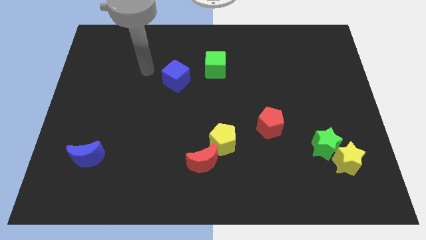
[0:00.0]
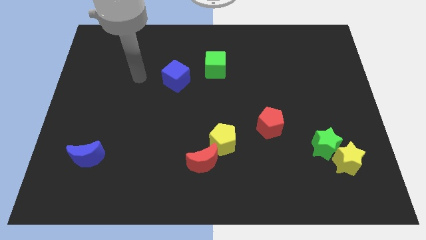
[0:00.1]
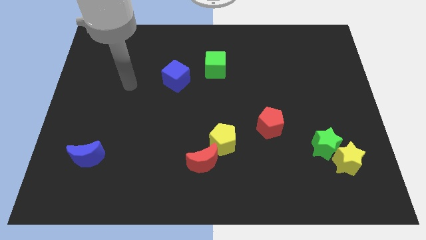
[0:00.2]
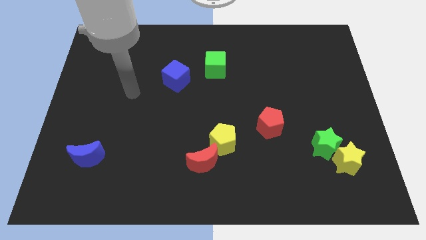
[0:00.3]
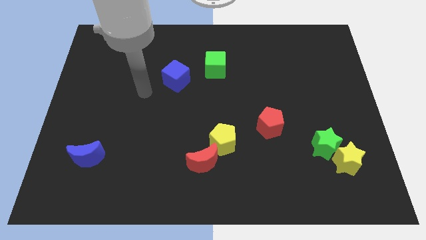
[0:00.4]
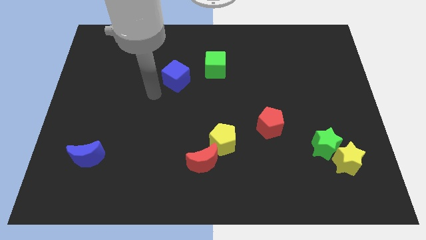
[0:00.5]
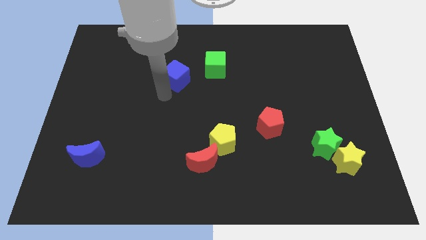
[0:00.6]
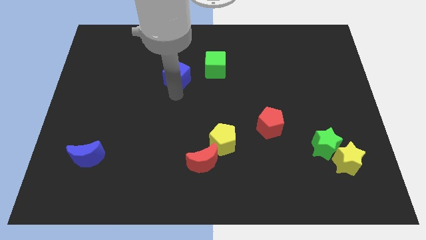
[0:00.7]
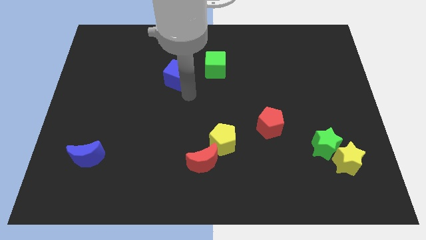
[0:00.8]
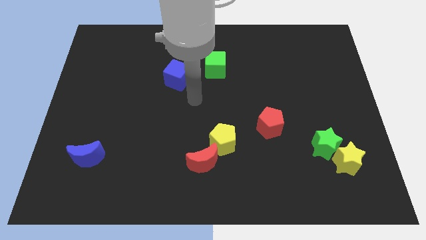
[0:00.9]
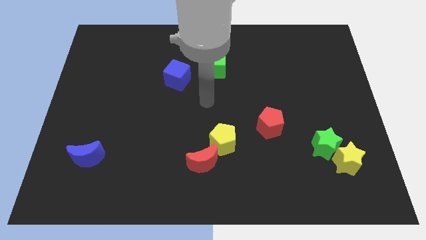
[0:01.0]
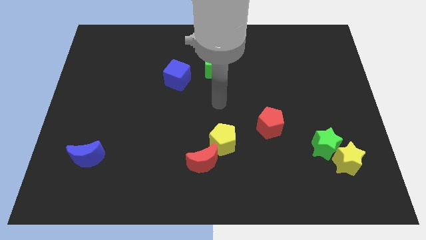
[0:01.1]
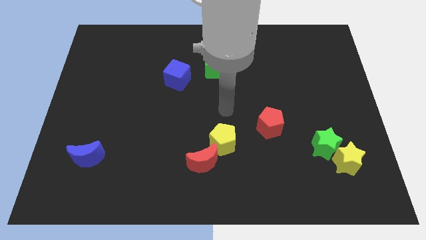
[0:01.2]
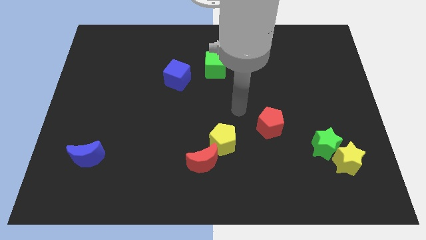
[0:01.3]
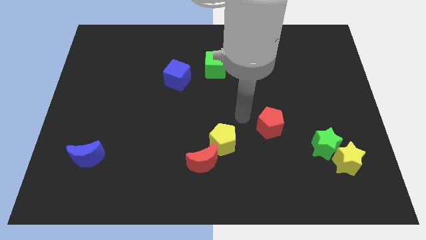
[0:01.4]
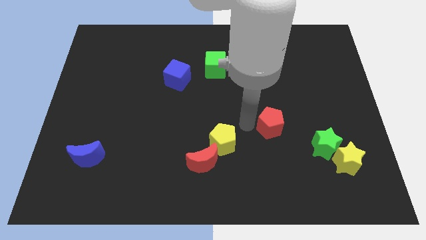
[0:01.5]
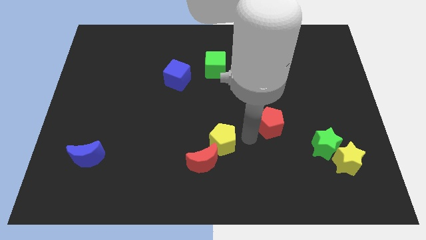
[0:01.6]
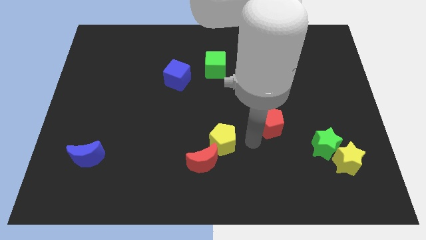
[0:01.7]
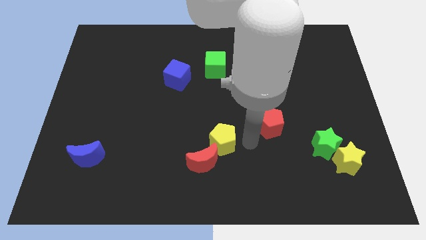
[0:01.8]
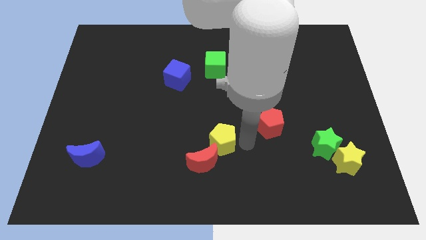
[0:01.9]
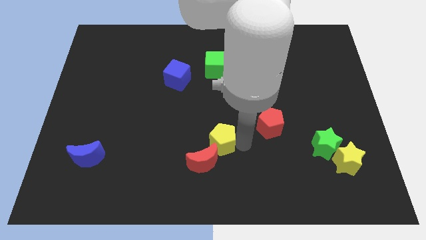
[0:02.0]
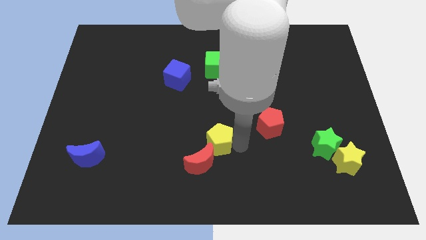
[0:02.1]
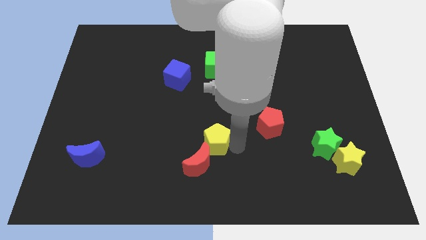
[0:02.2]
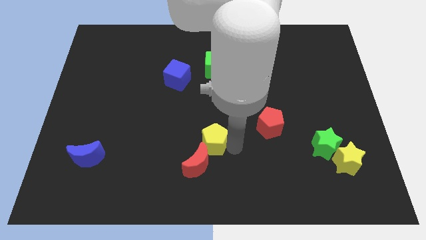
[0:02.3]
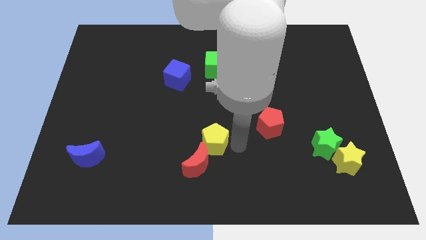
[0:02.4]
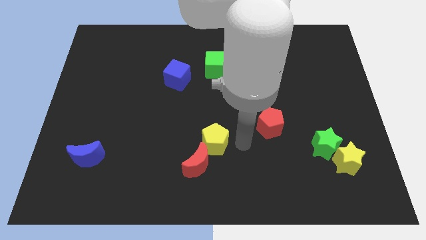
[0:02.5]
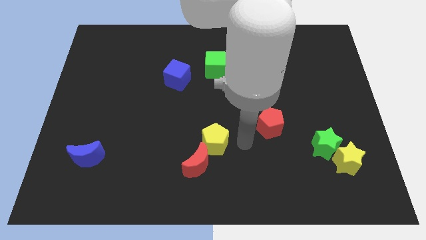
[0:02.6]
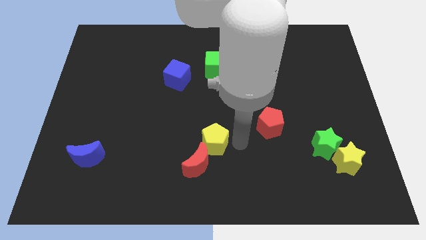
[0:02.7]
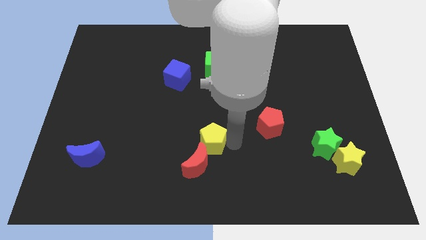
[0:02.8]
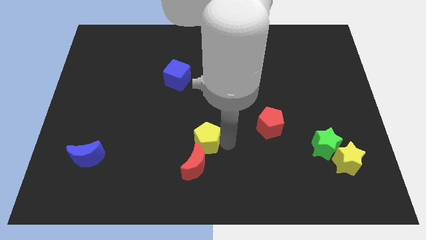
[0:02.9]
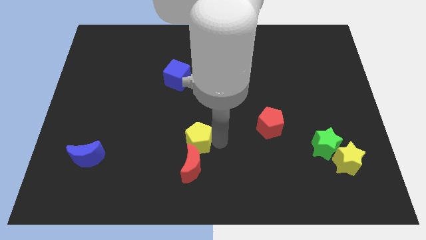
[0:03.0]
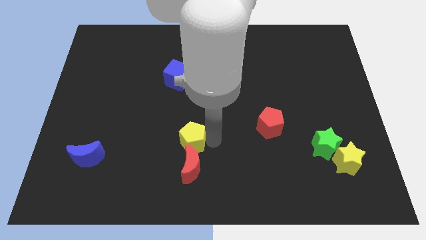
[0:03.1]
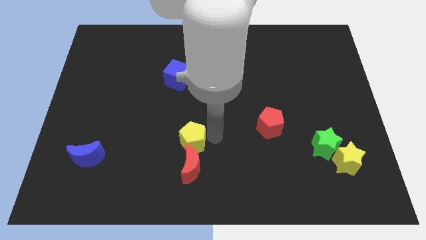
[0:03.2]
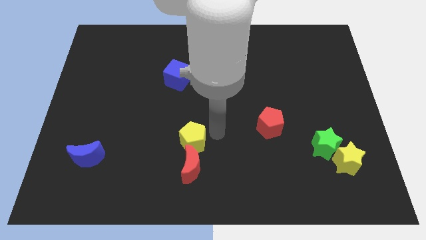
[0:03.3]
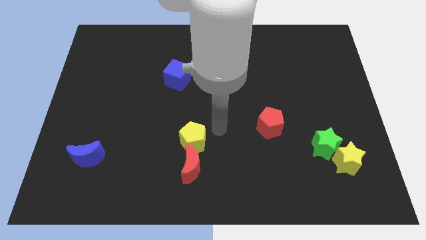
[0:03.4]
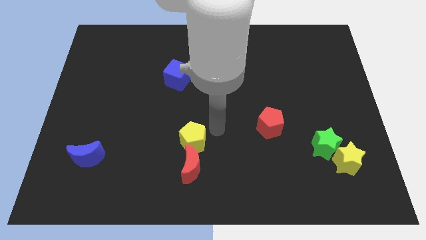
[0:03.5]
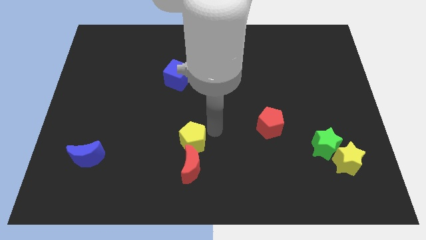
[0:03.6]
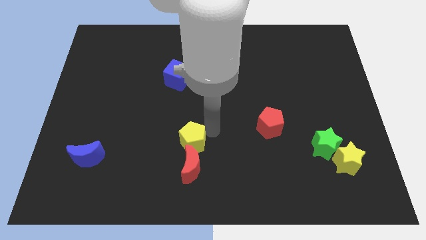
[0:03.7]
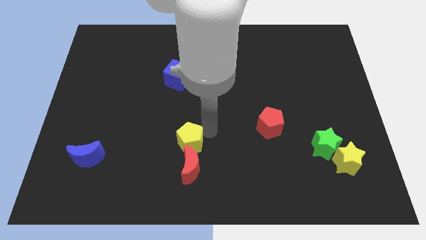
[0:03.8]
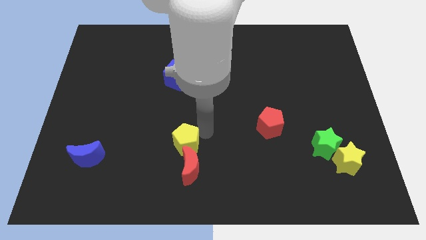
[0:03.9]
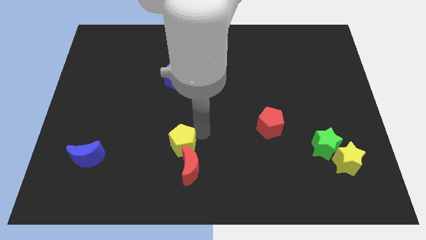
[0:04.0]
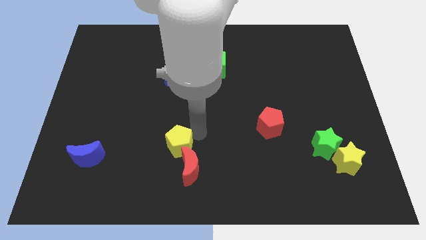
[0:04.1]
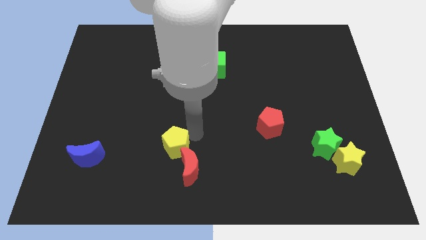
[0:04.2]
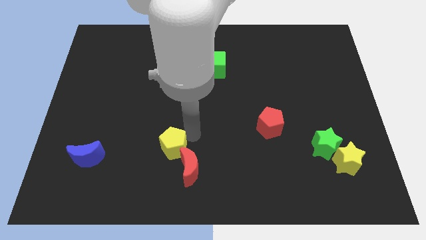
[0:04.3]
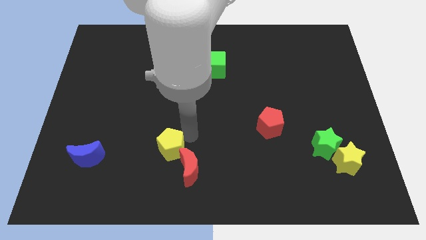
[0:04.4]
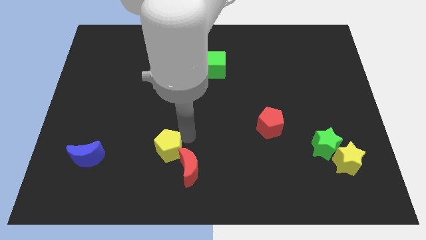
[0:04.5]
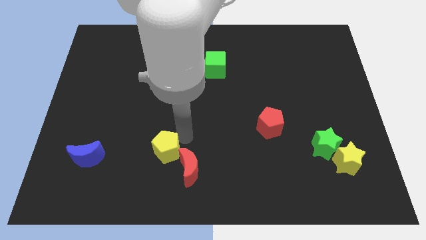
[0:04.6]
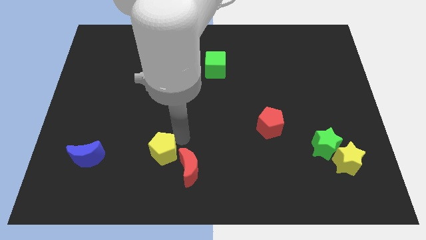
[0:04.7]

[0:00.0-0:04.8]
move the yellow pentagon just right of the blue moon

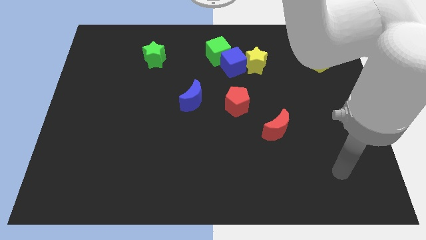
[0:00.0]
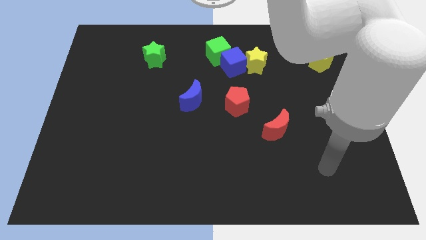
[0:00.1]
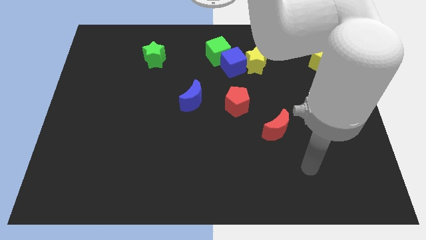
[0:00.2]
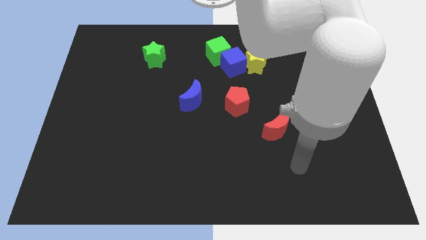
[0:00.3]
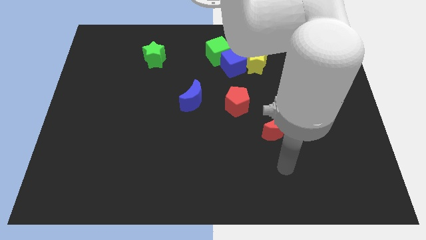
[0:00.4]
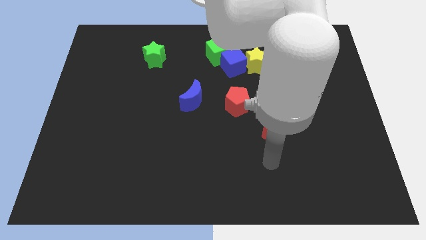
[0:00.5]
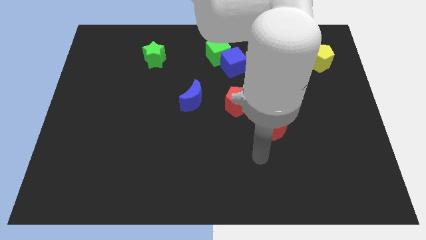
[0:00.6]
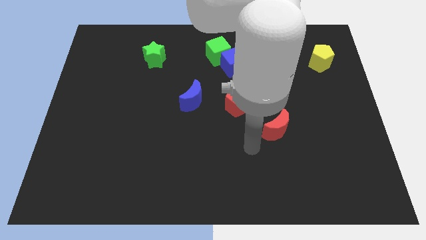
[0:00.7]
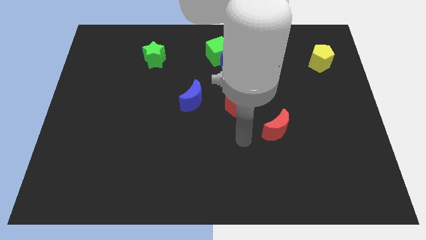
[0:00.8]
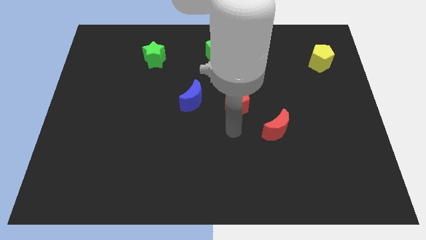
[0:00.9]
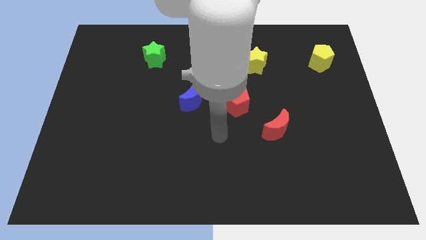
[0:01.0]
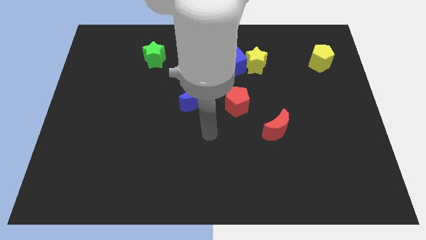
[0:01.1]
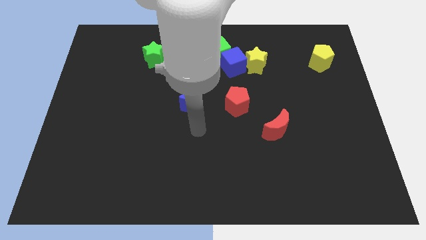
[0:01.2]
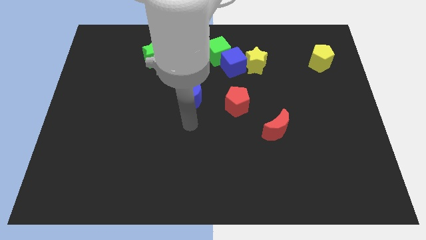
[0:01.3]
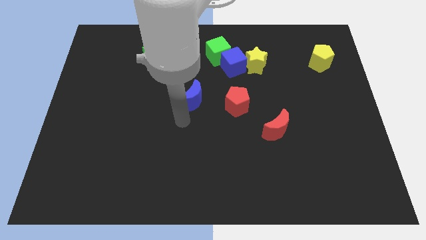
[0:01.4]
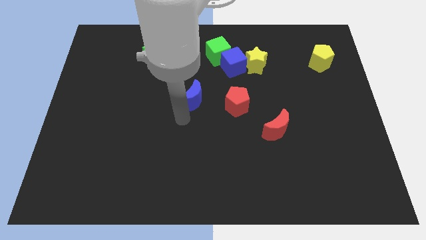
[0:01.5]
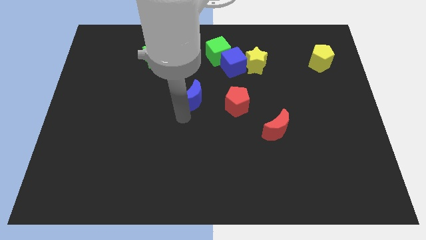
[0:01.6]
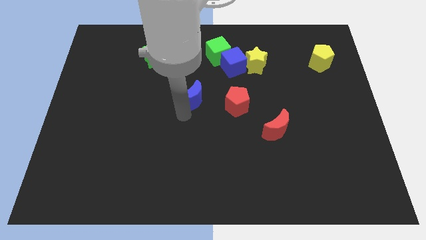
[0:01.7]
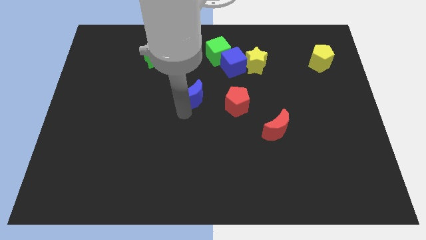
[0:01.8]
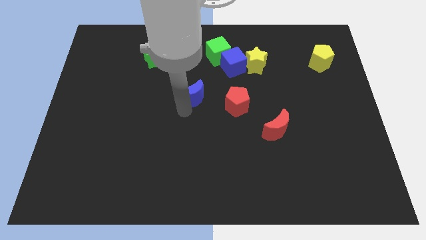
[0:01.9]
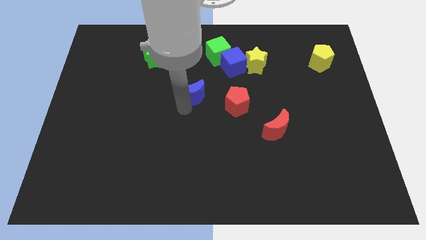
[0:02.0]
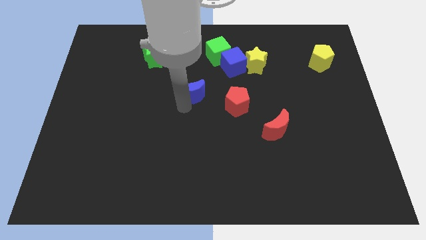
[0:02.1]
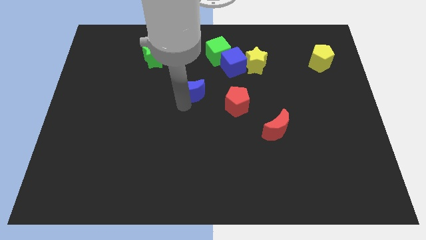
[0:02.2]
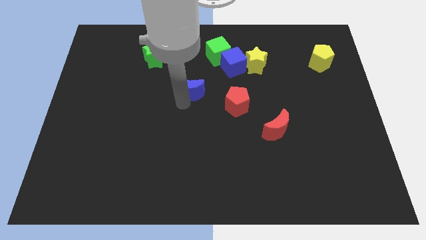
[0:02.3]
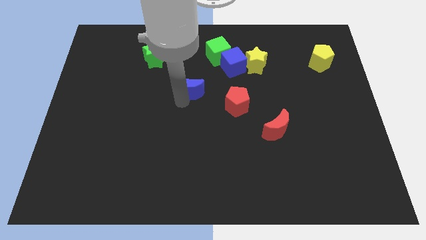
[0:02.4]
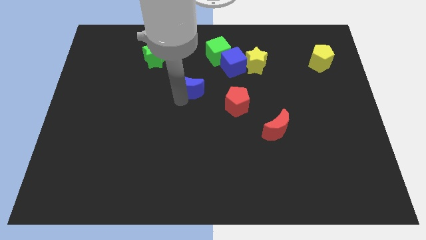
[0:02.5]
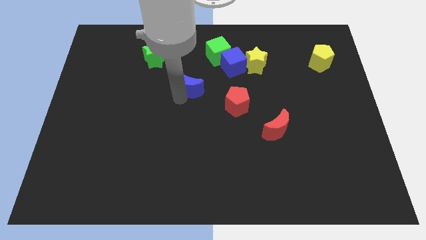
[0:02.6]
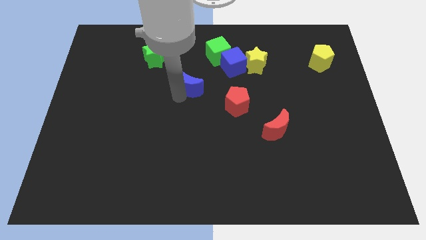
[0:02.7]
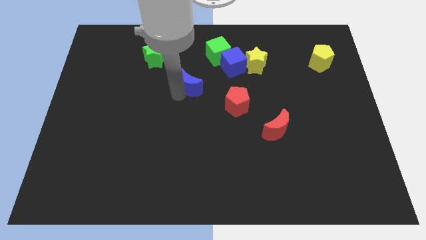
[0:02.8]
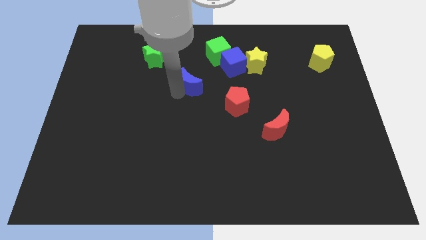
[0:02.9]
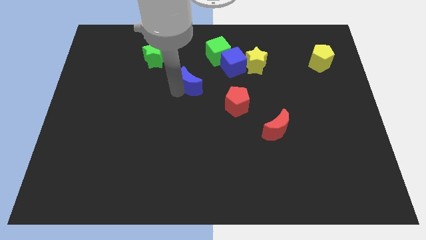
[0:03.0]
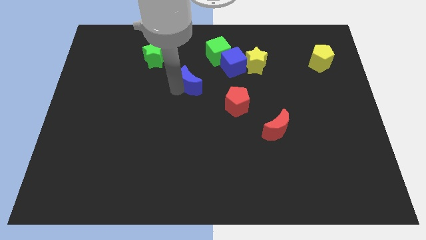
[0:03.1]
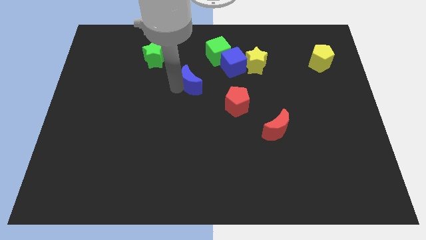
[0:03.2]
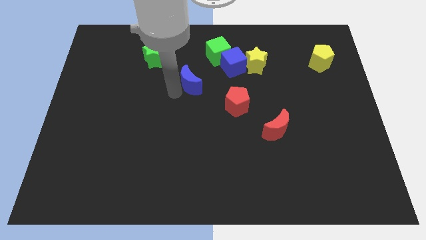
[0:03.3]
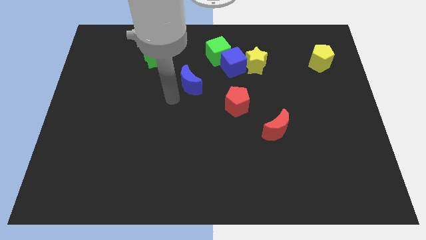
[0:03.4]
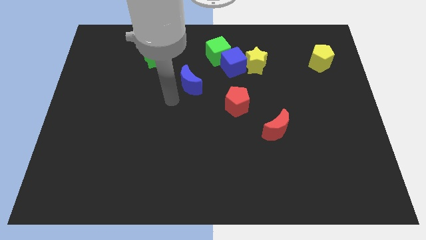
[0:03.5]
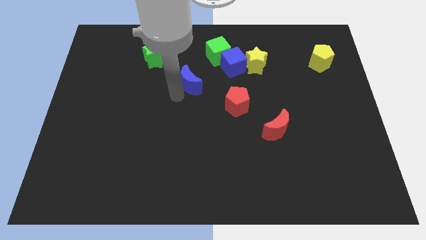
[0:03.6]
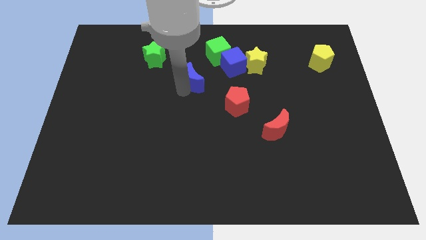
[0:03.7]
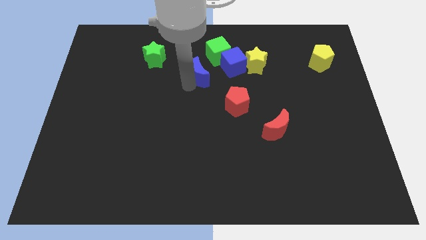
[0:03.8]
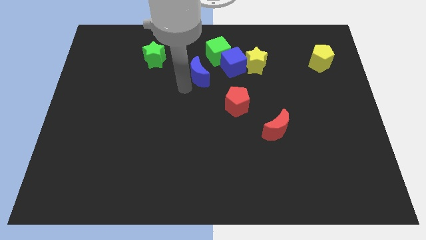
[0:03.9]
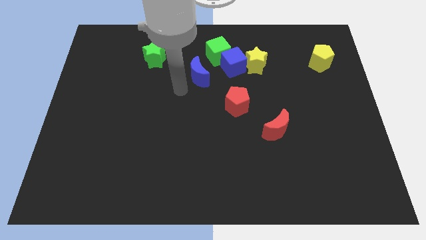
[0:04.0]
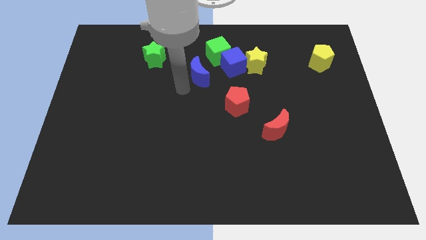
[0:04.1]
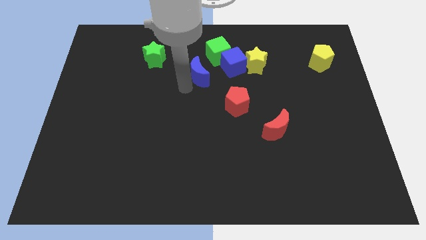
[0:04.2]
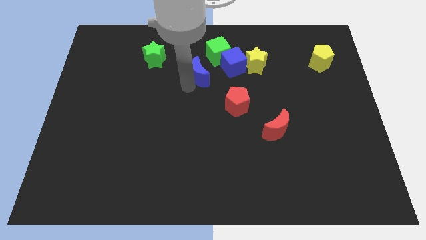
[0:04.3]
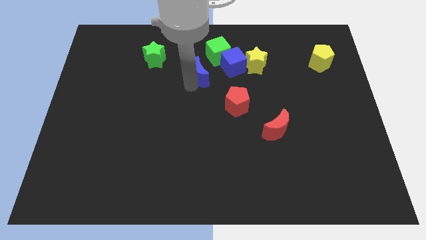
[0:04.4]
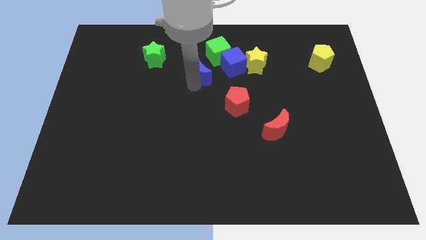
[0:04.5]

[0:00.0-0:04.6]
push the blue moon left of the yellow star

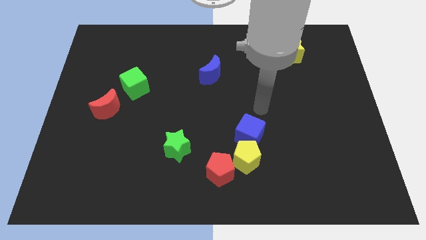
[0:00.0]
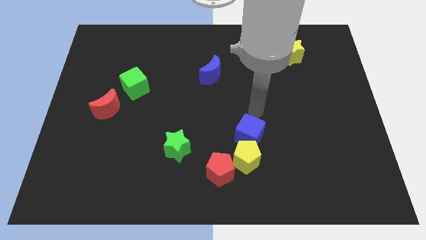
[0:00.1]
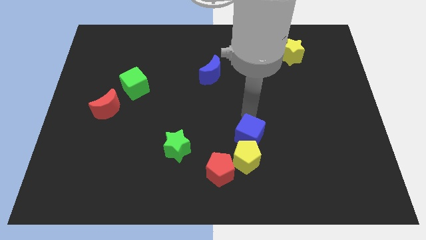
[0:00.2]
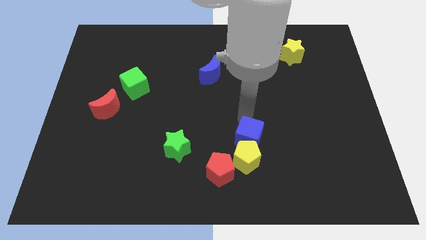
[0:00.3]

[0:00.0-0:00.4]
slide the yellow pentagon diagonally down and to the right of the blue cube
